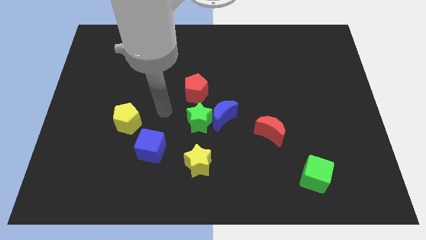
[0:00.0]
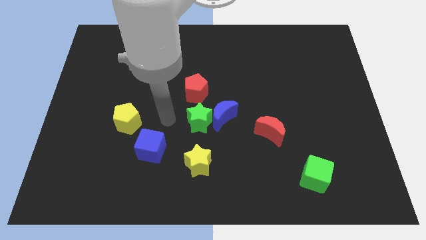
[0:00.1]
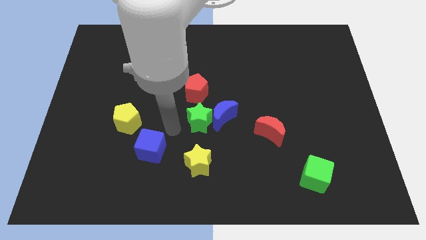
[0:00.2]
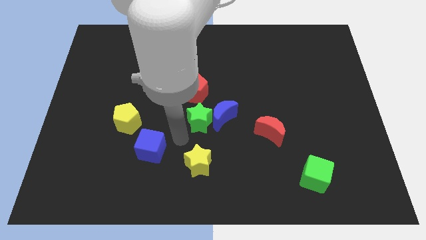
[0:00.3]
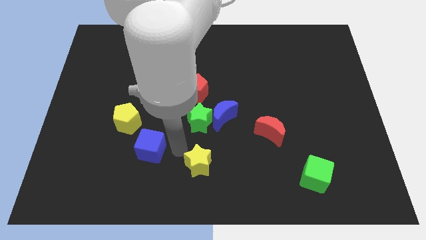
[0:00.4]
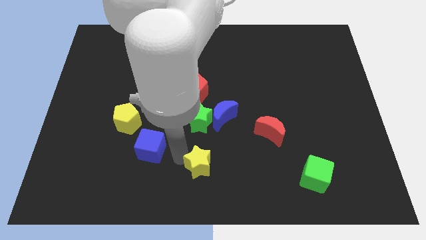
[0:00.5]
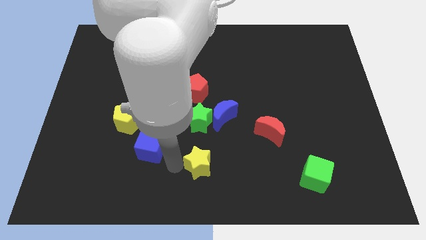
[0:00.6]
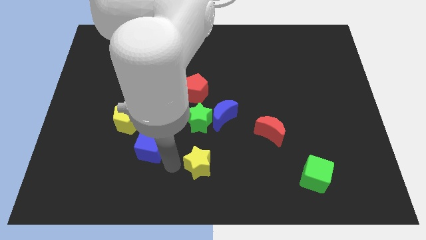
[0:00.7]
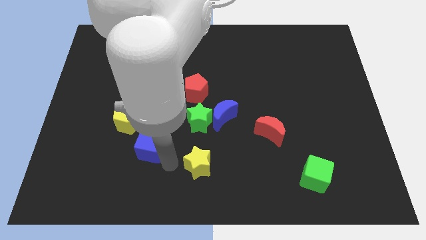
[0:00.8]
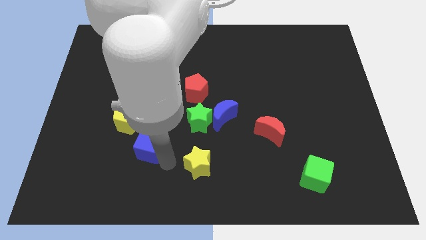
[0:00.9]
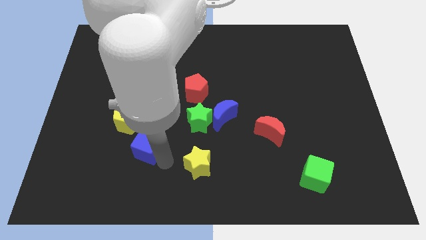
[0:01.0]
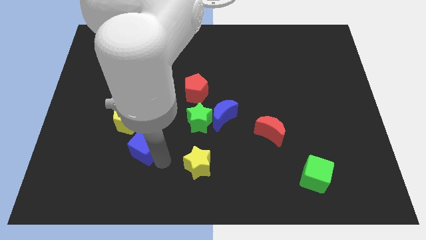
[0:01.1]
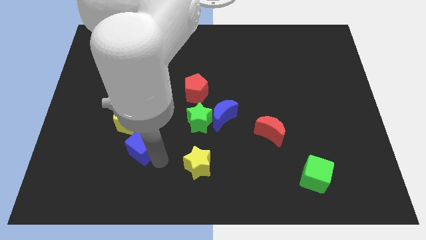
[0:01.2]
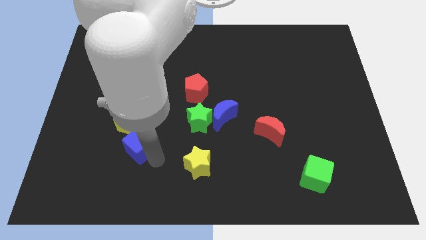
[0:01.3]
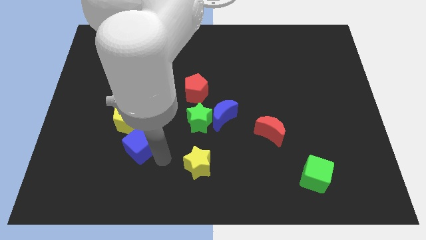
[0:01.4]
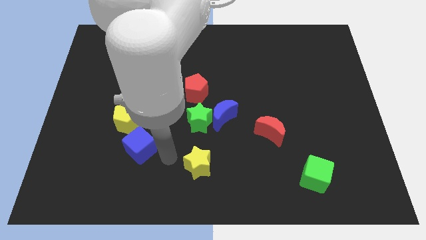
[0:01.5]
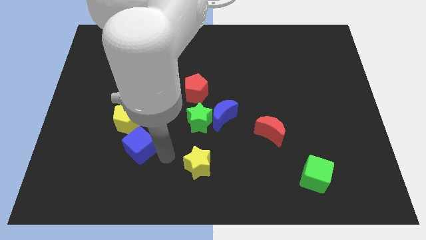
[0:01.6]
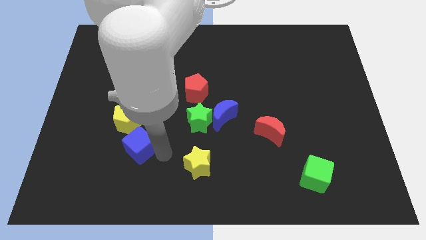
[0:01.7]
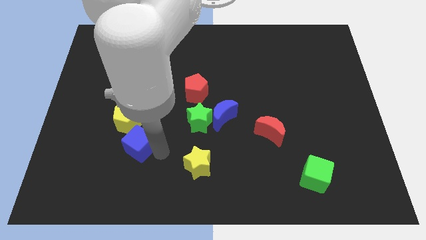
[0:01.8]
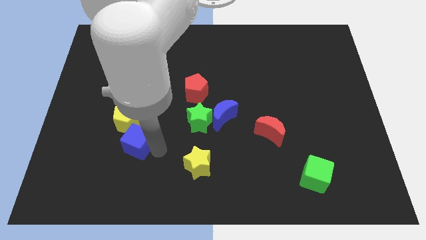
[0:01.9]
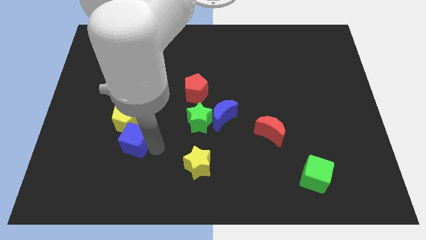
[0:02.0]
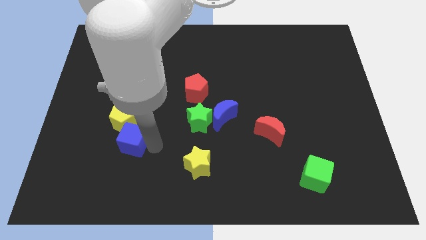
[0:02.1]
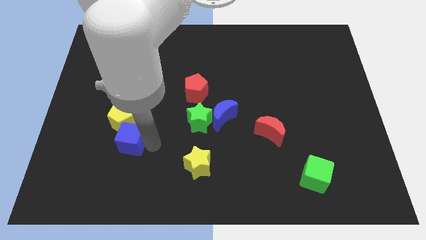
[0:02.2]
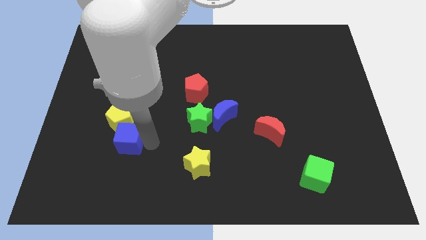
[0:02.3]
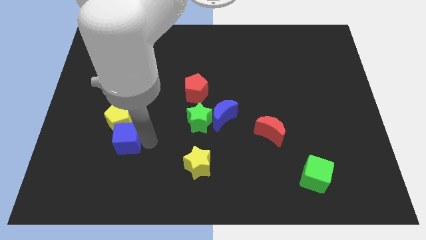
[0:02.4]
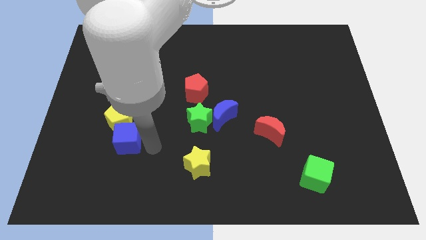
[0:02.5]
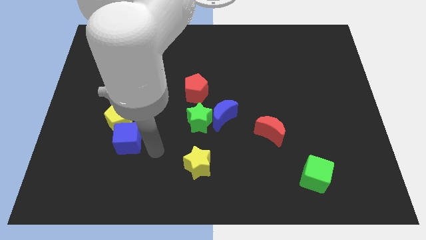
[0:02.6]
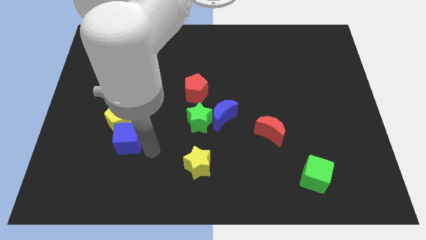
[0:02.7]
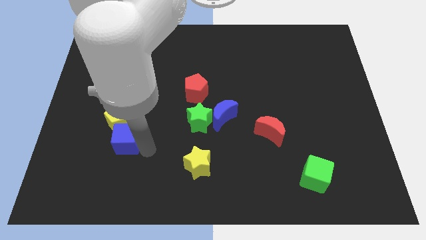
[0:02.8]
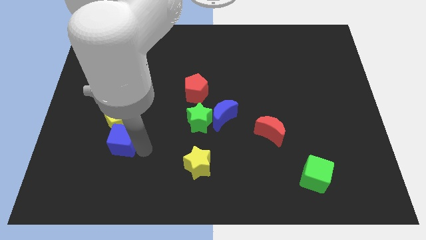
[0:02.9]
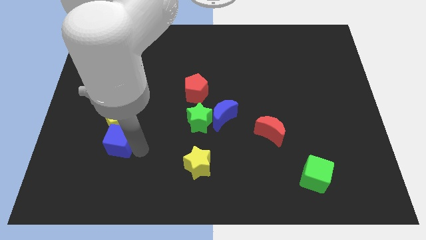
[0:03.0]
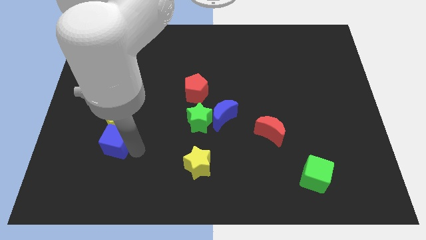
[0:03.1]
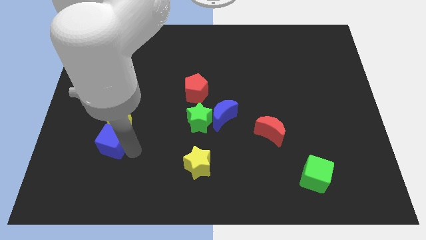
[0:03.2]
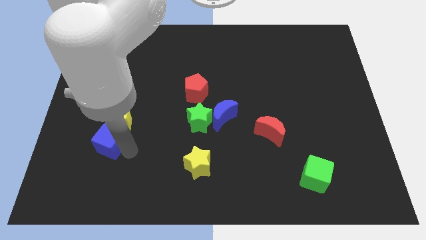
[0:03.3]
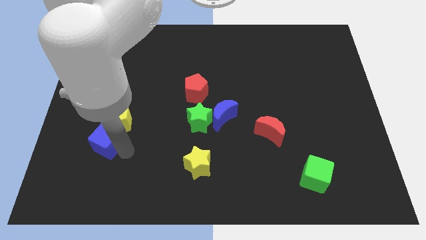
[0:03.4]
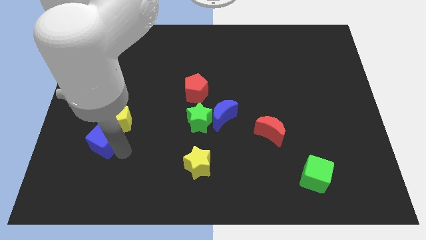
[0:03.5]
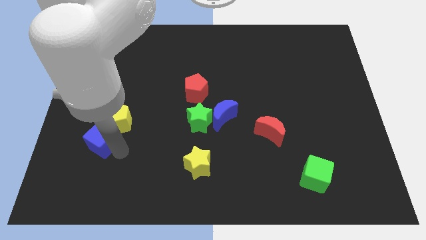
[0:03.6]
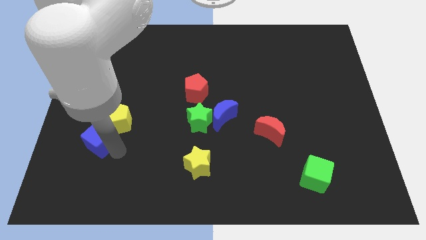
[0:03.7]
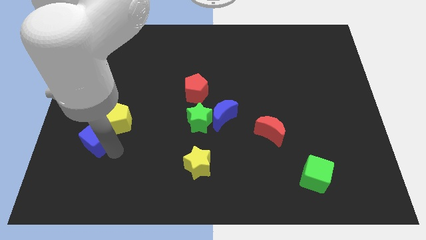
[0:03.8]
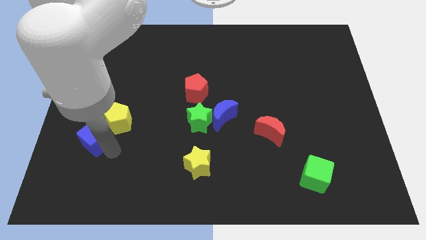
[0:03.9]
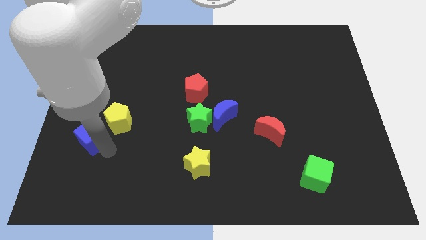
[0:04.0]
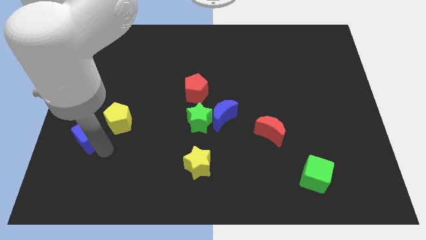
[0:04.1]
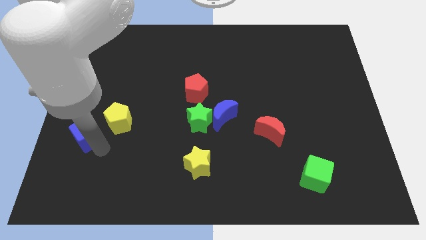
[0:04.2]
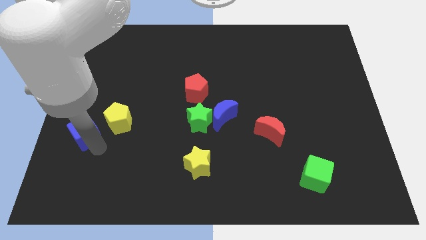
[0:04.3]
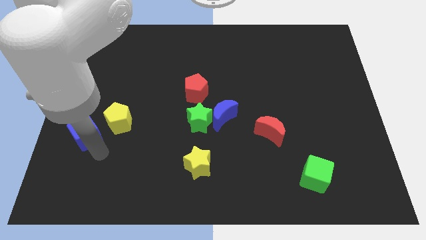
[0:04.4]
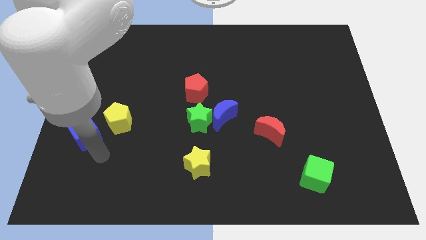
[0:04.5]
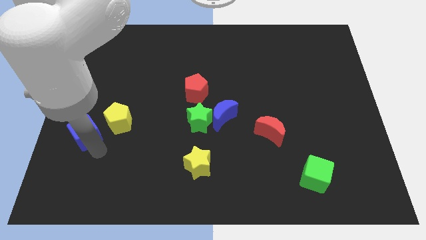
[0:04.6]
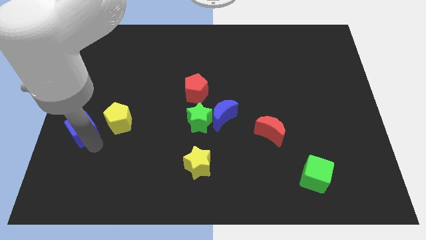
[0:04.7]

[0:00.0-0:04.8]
move the blue cube to the left side of the board

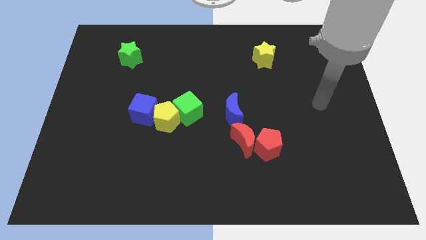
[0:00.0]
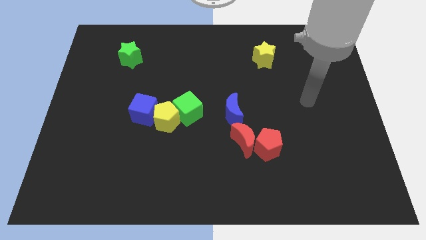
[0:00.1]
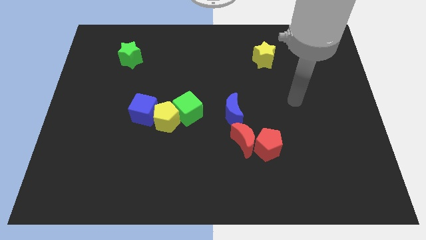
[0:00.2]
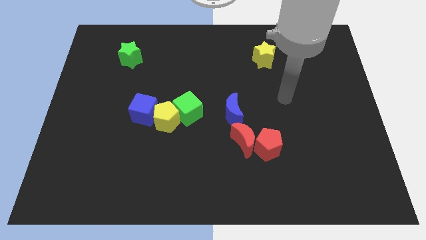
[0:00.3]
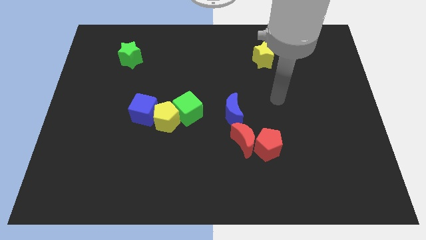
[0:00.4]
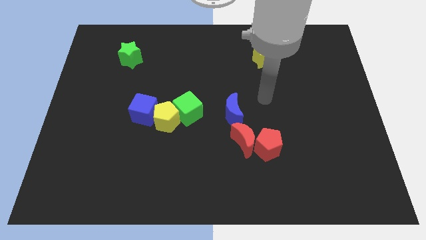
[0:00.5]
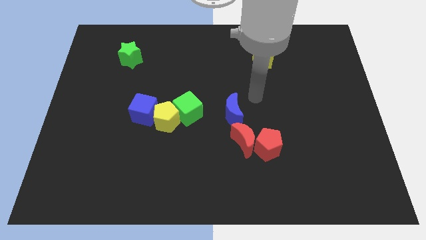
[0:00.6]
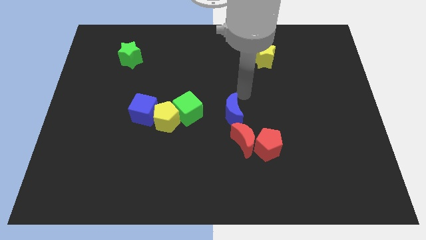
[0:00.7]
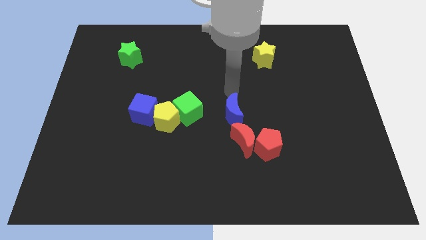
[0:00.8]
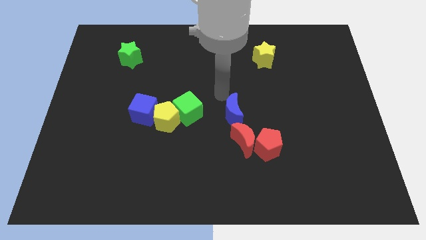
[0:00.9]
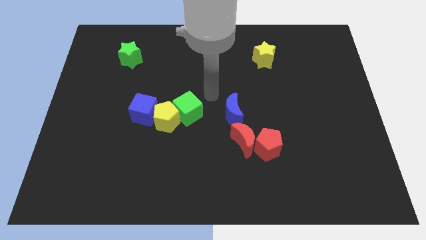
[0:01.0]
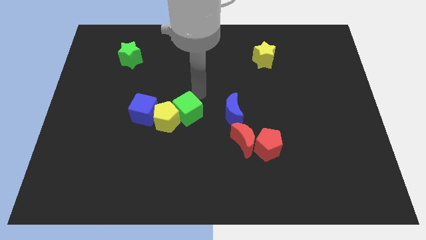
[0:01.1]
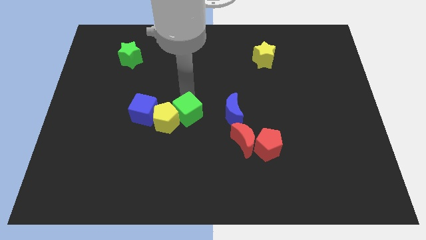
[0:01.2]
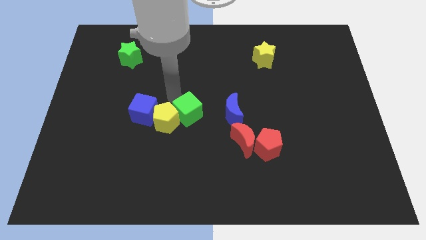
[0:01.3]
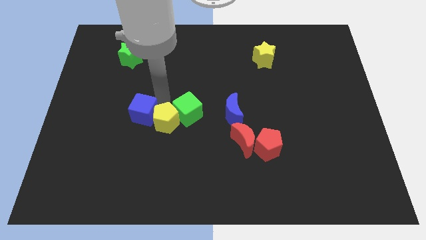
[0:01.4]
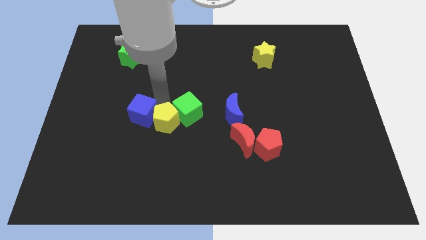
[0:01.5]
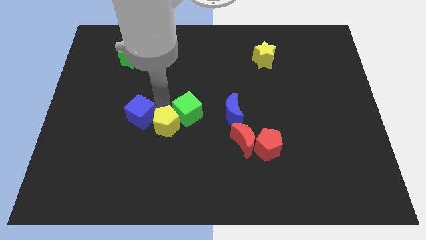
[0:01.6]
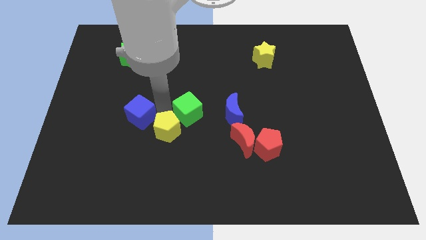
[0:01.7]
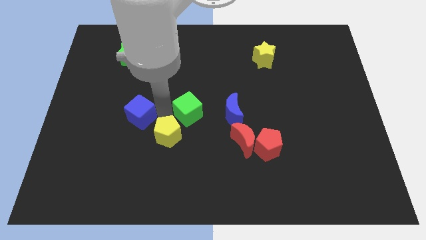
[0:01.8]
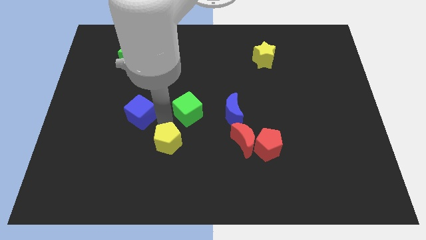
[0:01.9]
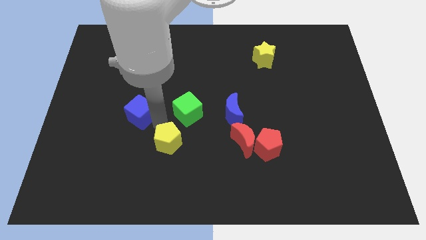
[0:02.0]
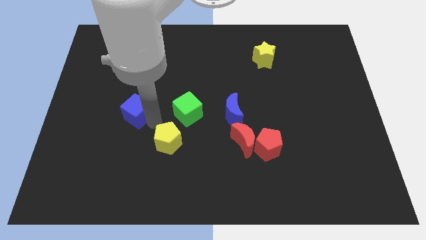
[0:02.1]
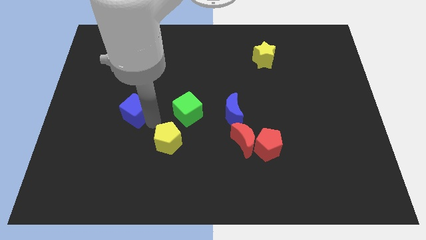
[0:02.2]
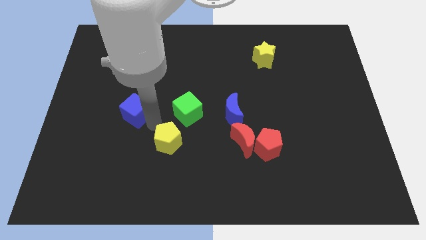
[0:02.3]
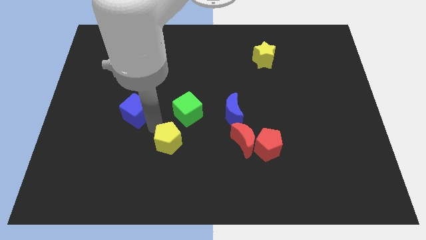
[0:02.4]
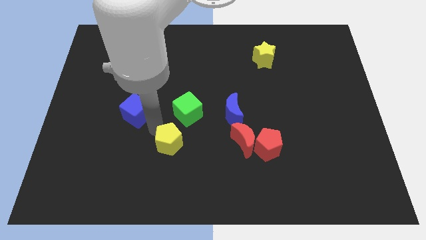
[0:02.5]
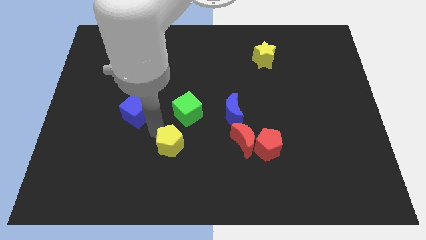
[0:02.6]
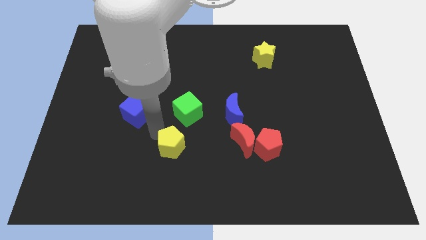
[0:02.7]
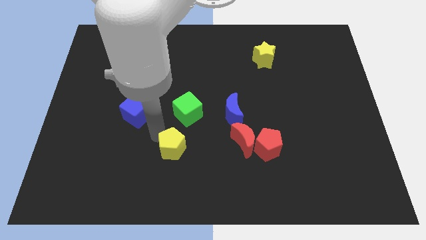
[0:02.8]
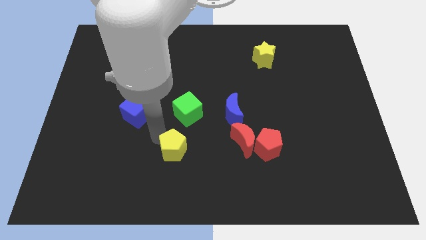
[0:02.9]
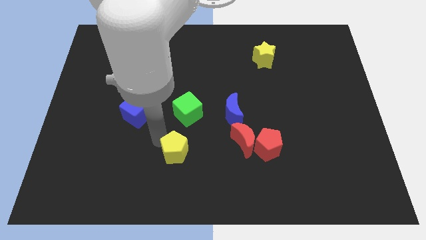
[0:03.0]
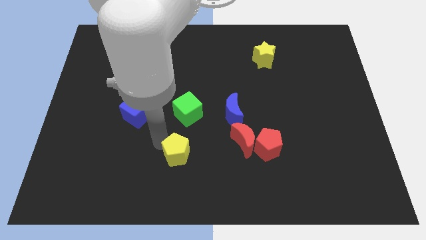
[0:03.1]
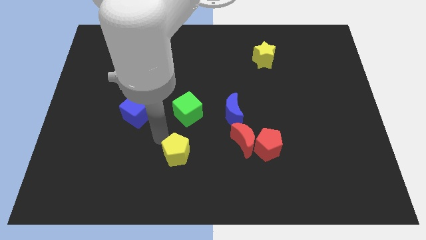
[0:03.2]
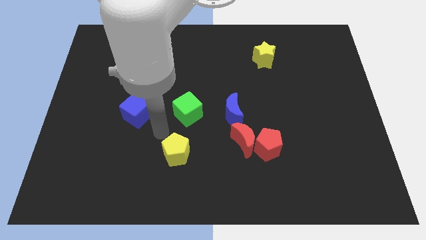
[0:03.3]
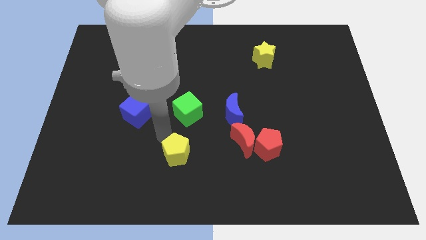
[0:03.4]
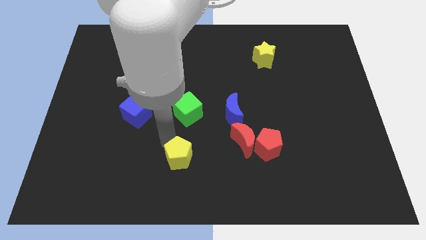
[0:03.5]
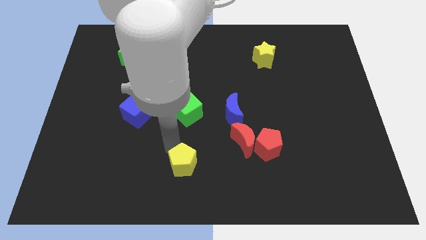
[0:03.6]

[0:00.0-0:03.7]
slide the yellow pentagon to the bottom
